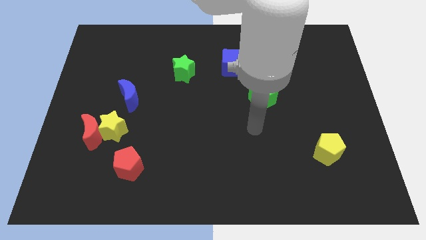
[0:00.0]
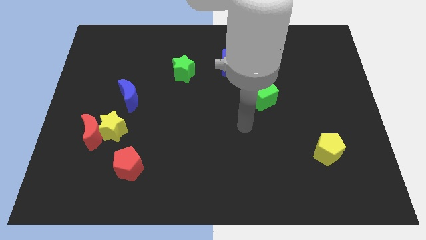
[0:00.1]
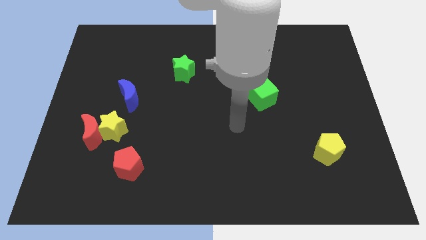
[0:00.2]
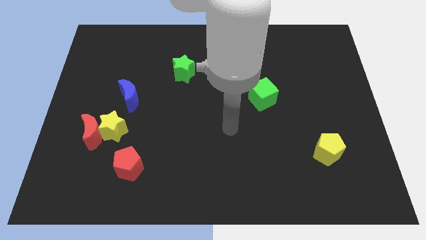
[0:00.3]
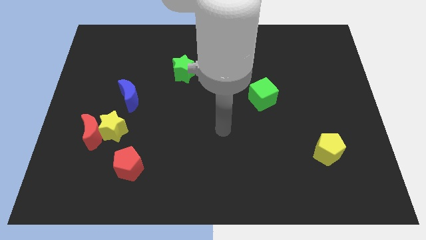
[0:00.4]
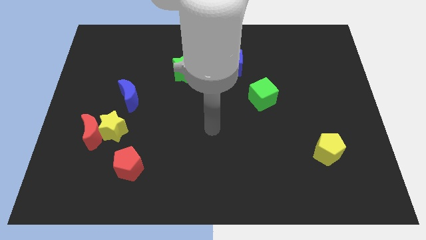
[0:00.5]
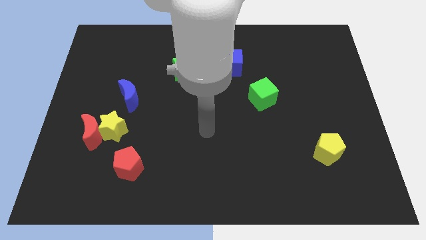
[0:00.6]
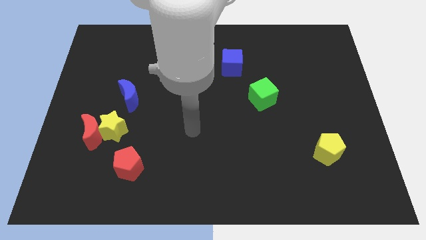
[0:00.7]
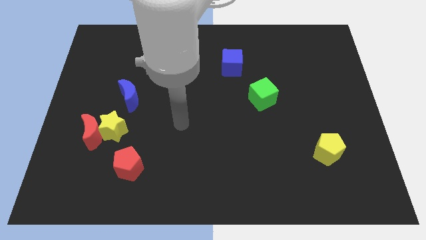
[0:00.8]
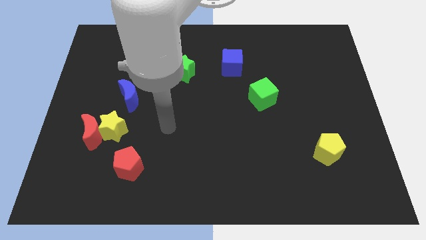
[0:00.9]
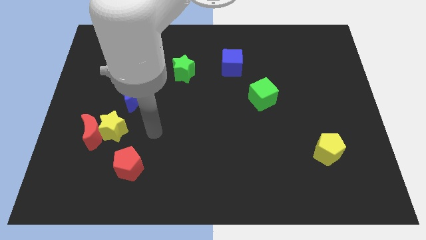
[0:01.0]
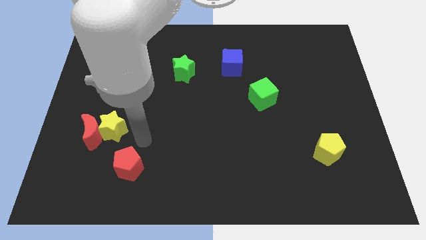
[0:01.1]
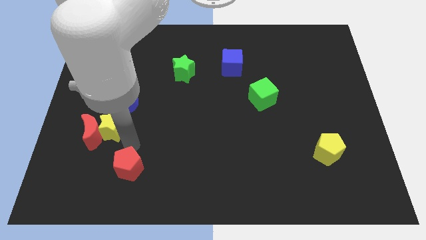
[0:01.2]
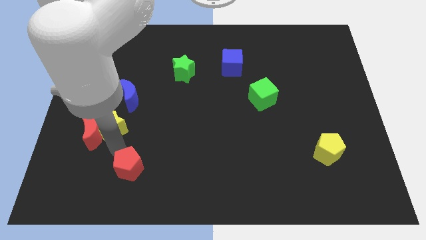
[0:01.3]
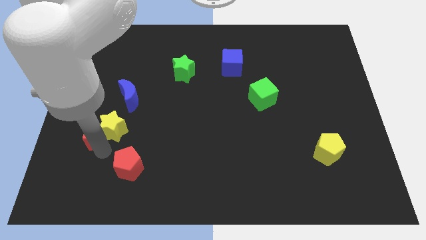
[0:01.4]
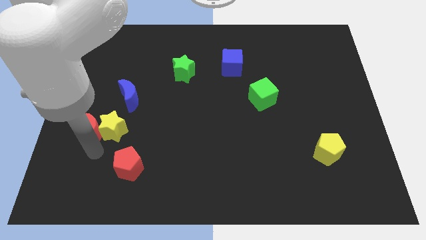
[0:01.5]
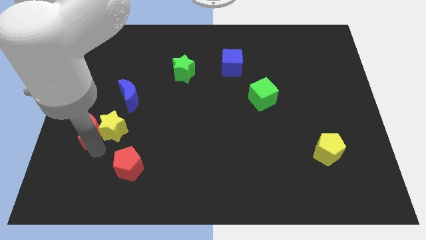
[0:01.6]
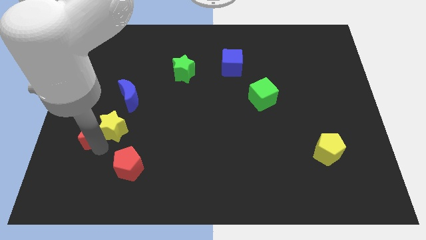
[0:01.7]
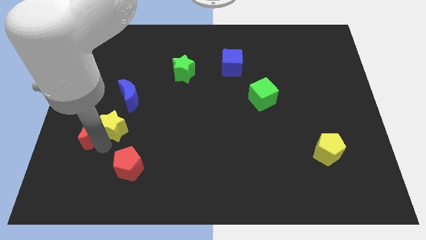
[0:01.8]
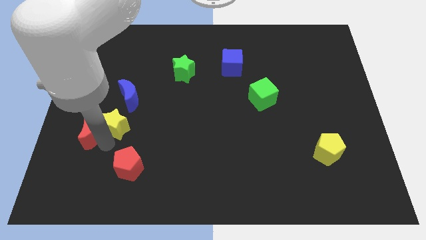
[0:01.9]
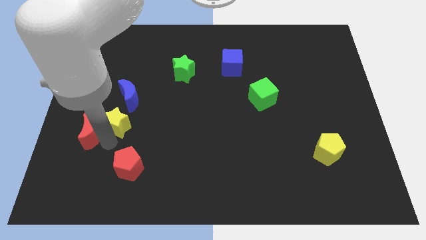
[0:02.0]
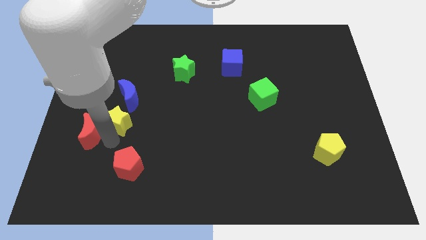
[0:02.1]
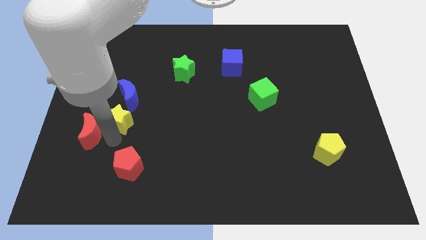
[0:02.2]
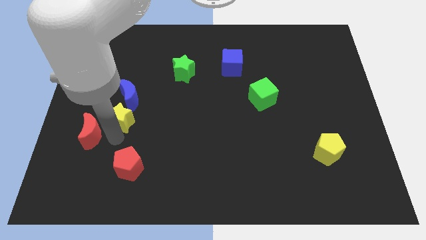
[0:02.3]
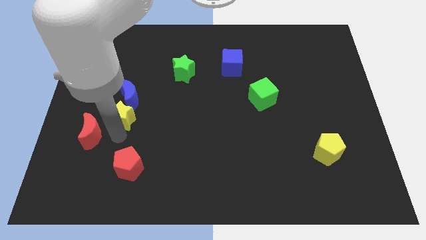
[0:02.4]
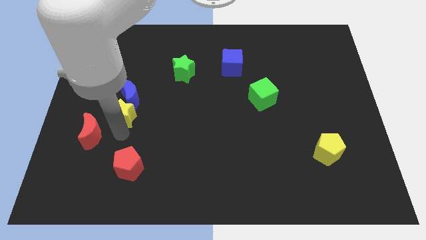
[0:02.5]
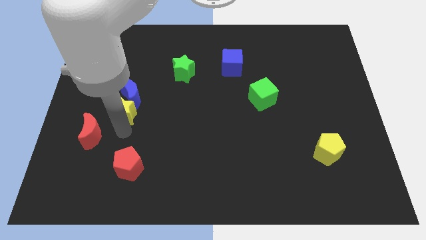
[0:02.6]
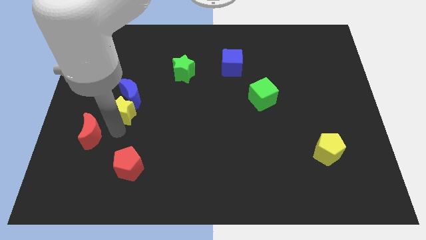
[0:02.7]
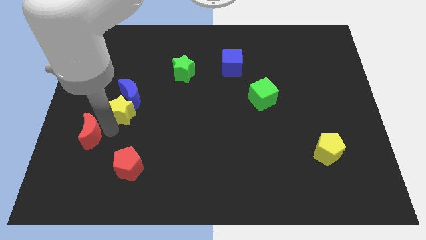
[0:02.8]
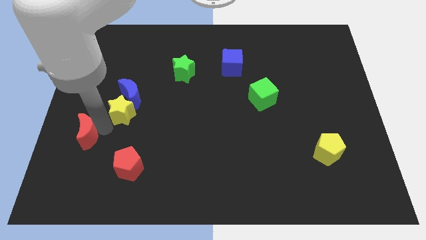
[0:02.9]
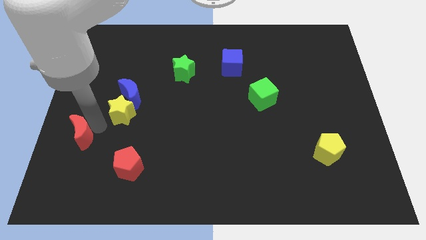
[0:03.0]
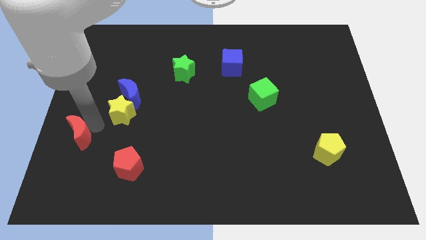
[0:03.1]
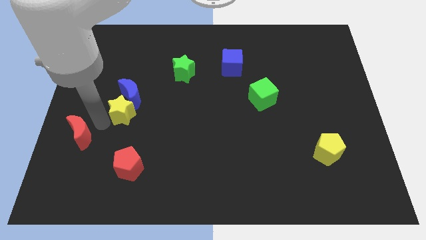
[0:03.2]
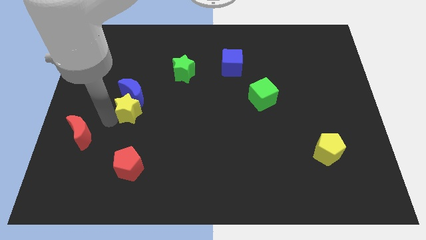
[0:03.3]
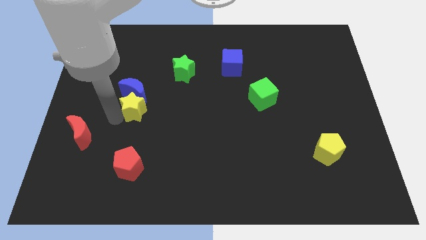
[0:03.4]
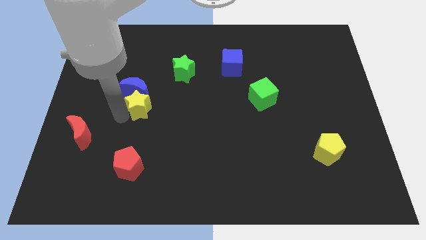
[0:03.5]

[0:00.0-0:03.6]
slide the yellow star diagonally up and right a bit

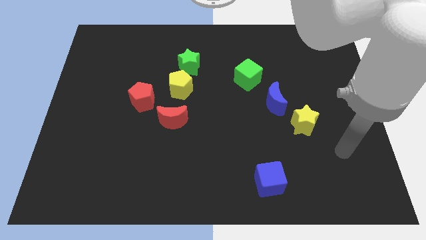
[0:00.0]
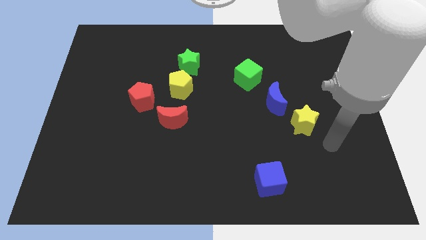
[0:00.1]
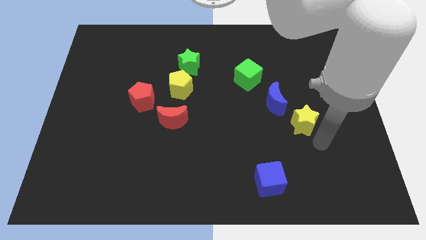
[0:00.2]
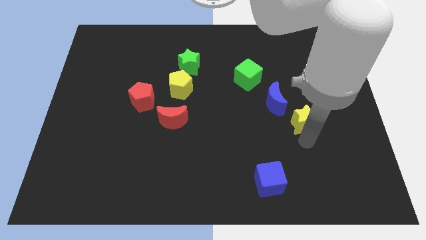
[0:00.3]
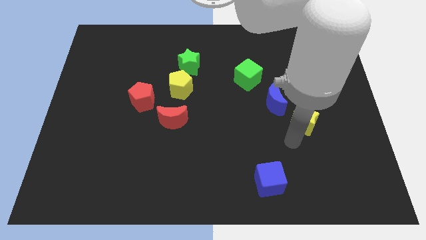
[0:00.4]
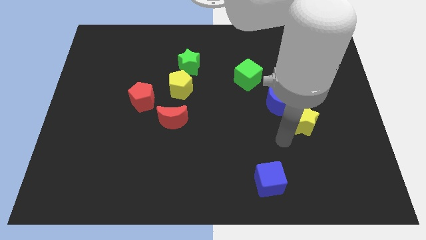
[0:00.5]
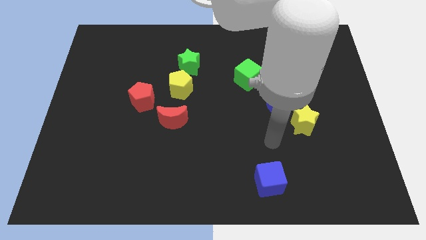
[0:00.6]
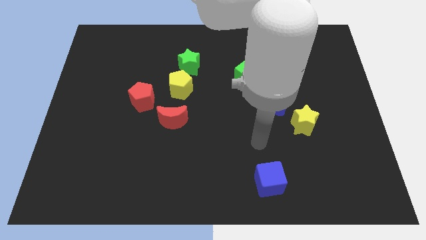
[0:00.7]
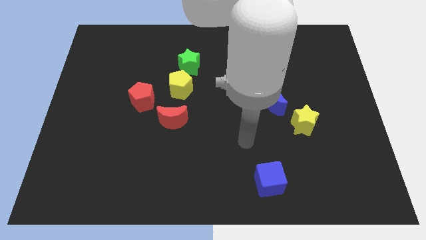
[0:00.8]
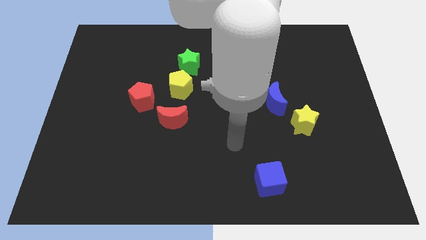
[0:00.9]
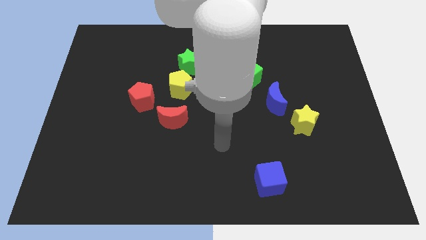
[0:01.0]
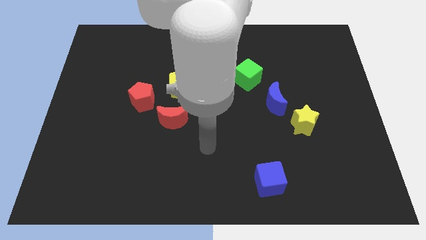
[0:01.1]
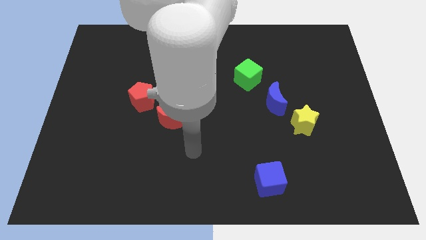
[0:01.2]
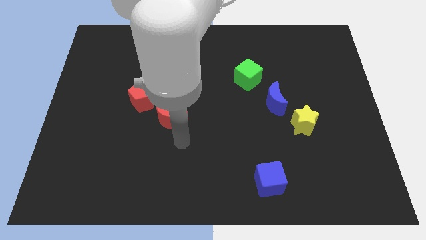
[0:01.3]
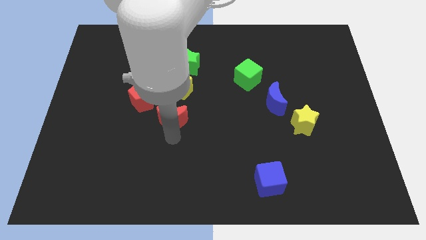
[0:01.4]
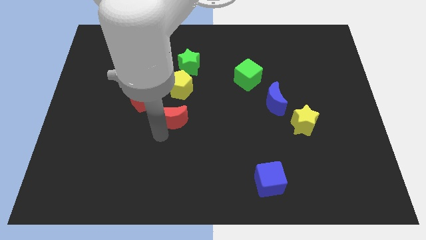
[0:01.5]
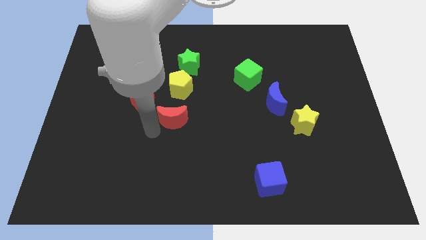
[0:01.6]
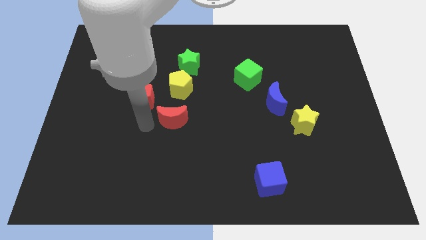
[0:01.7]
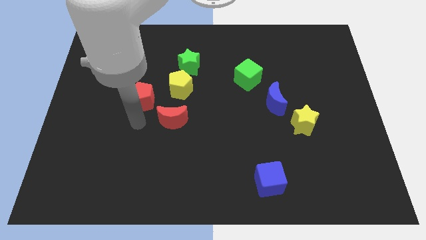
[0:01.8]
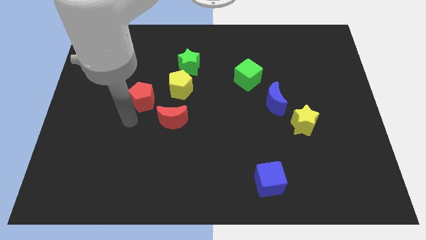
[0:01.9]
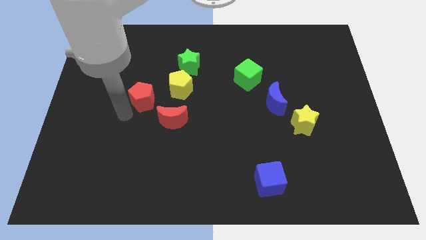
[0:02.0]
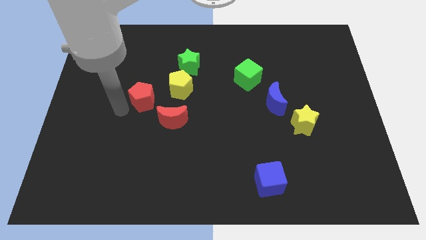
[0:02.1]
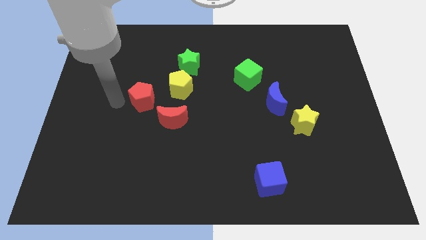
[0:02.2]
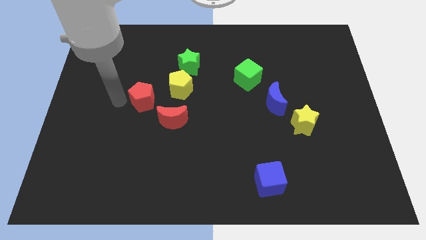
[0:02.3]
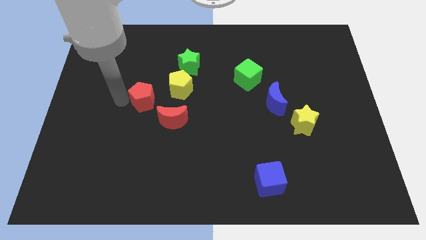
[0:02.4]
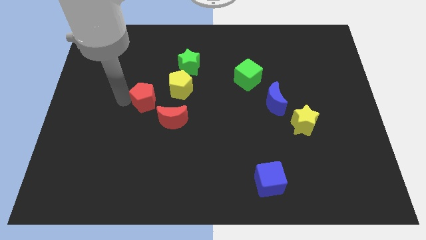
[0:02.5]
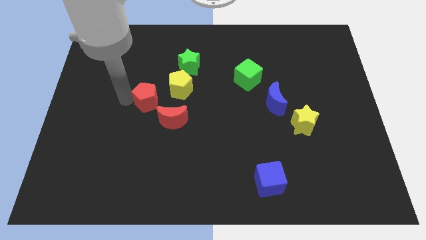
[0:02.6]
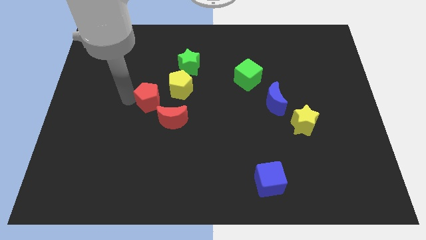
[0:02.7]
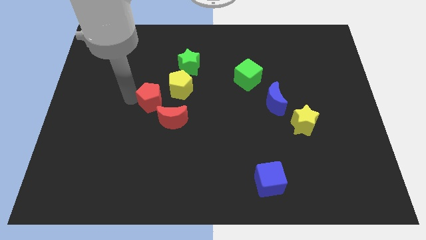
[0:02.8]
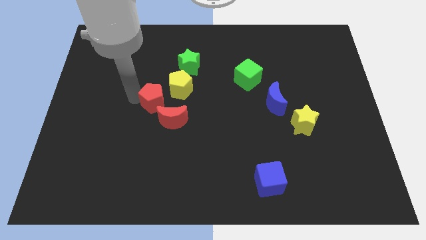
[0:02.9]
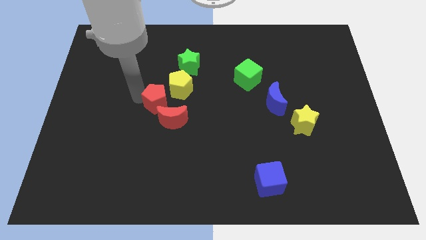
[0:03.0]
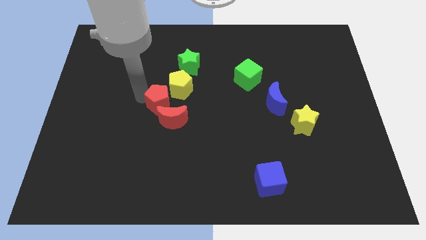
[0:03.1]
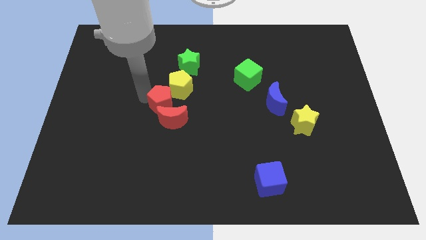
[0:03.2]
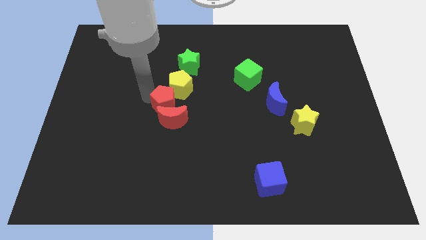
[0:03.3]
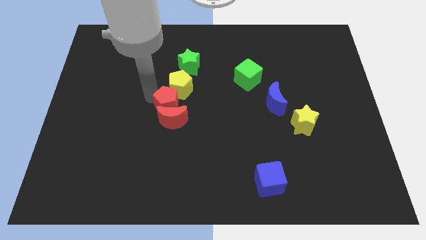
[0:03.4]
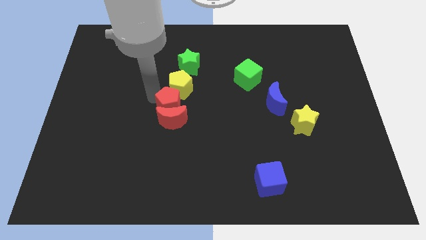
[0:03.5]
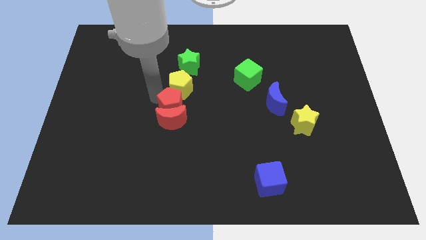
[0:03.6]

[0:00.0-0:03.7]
slightly move the red pentagon right

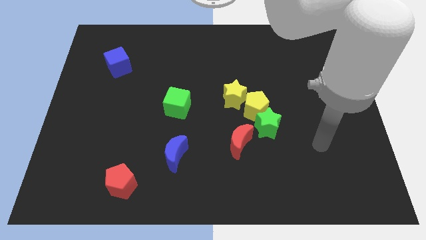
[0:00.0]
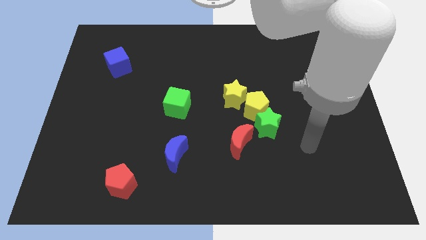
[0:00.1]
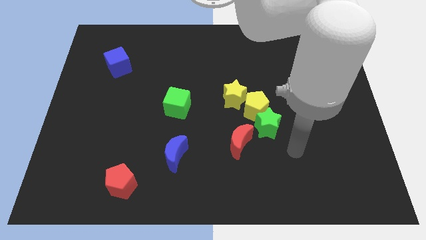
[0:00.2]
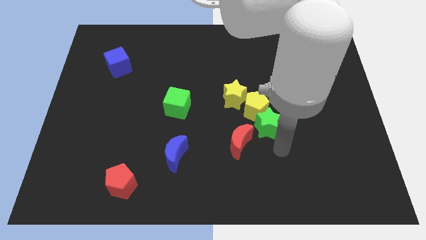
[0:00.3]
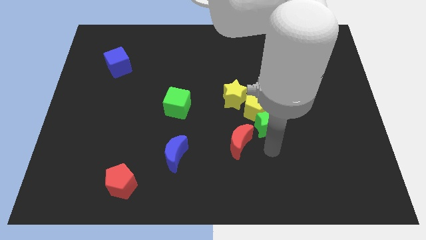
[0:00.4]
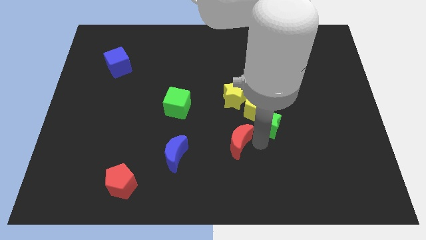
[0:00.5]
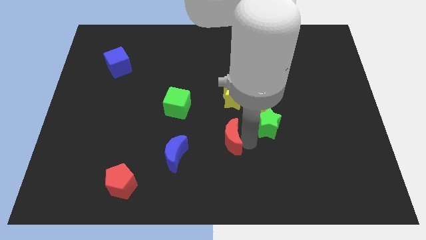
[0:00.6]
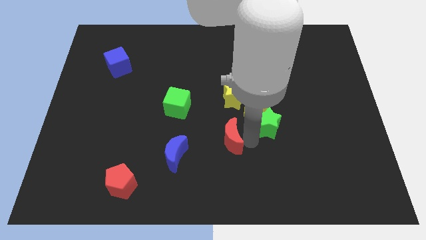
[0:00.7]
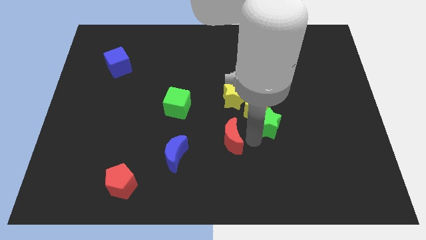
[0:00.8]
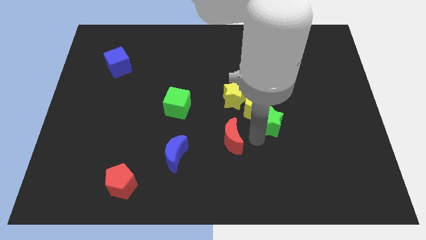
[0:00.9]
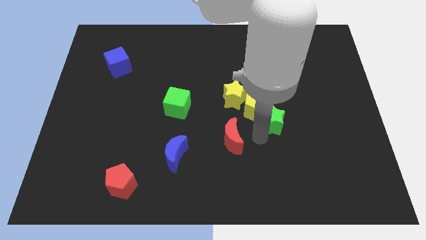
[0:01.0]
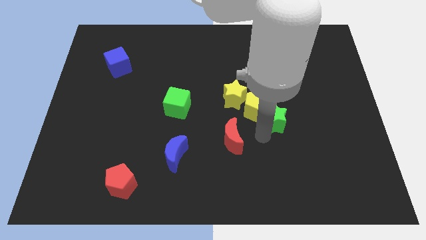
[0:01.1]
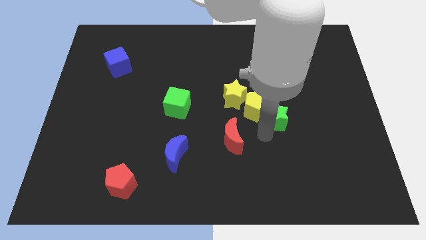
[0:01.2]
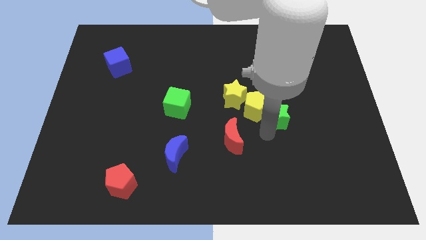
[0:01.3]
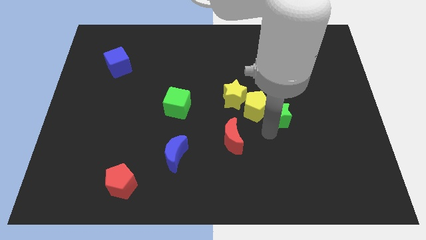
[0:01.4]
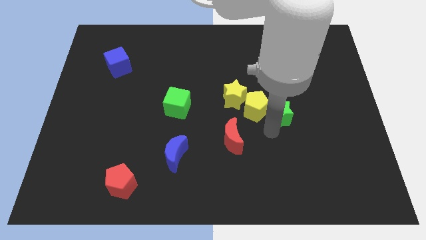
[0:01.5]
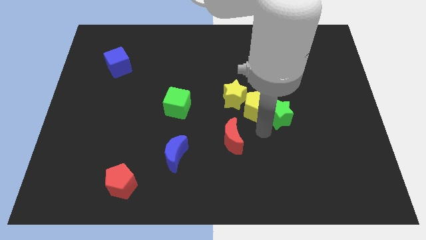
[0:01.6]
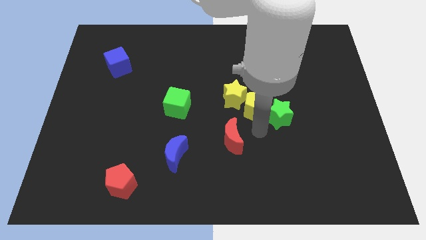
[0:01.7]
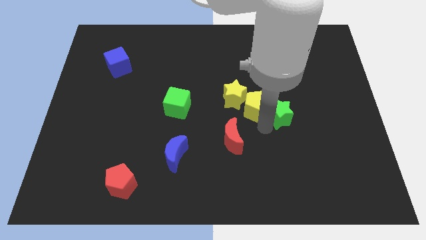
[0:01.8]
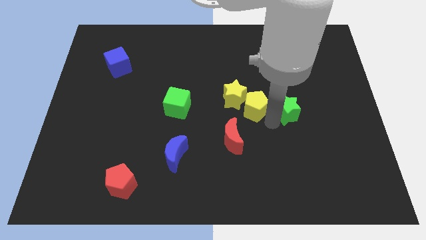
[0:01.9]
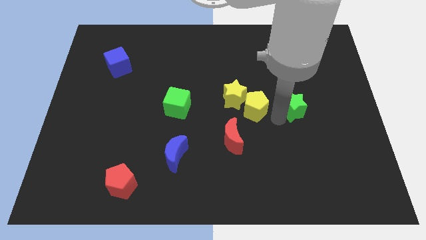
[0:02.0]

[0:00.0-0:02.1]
slightly slide the green star upwards and to the right
